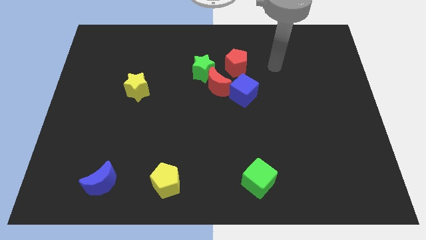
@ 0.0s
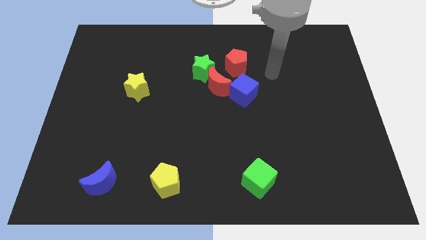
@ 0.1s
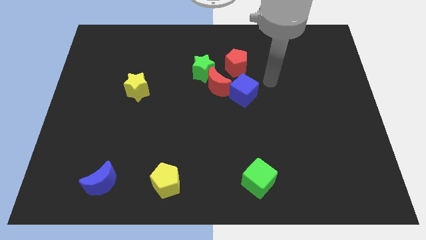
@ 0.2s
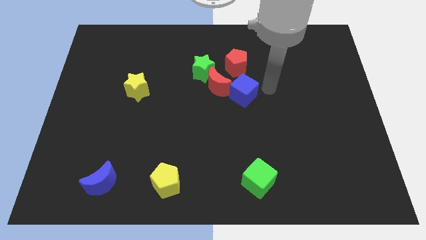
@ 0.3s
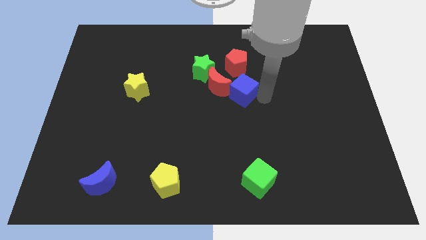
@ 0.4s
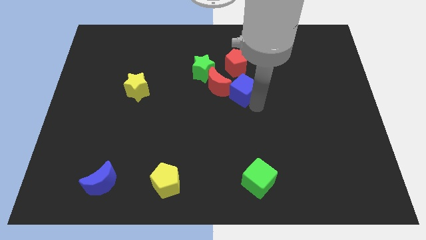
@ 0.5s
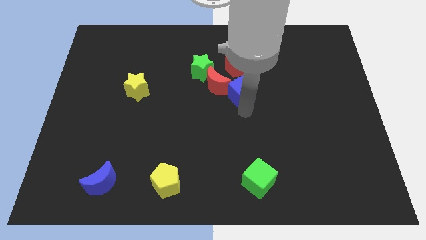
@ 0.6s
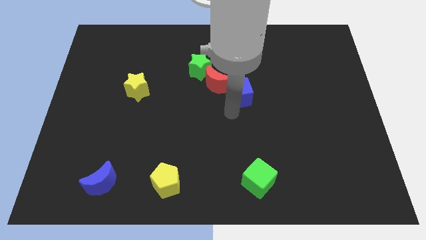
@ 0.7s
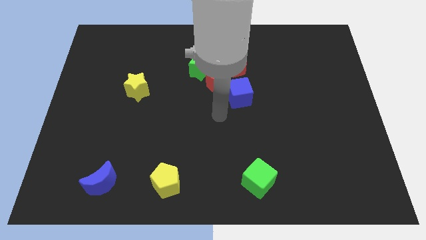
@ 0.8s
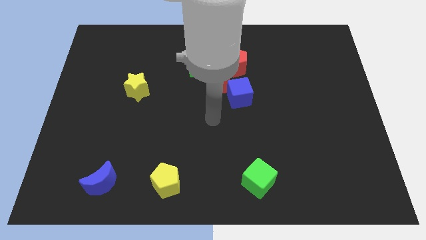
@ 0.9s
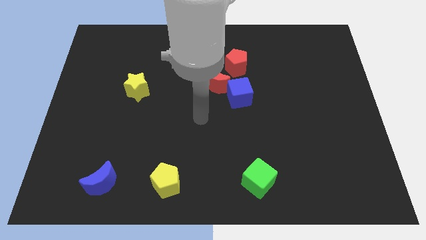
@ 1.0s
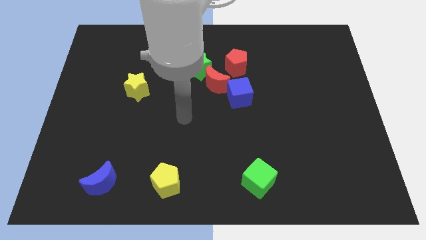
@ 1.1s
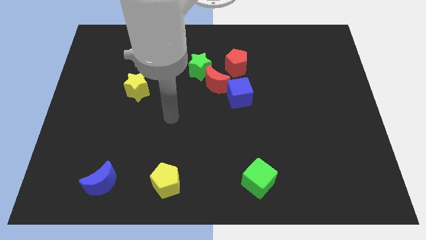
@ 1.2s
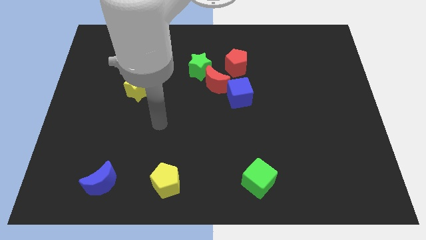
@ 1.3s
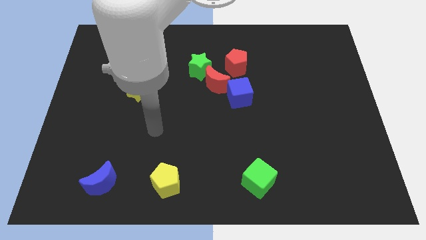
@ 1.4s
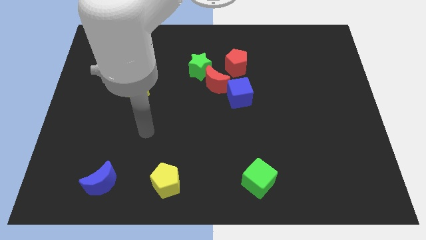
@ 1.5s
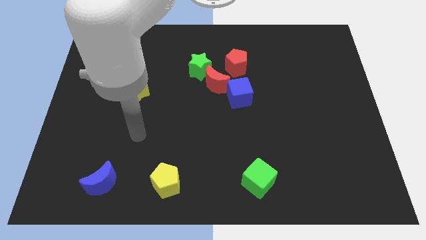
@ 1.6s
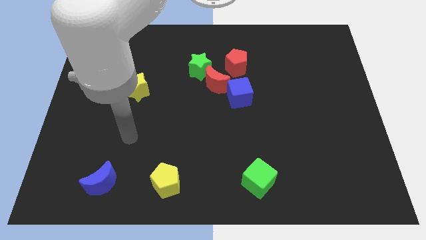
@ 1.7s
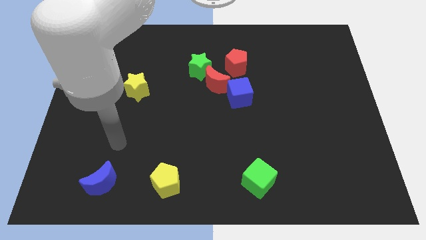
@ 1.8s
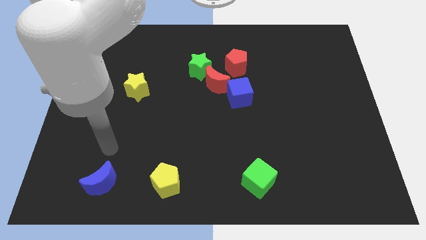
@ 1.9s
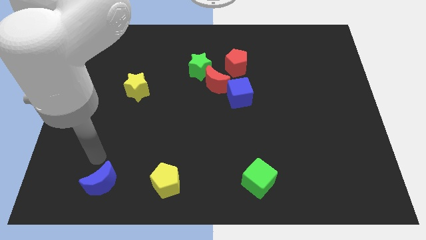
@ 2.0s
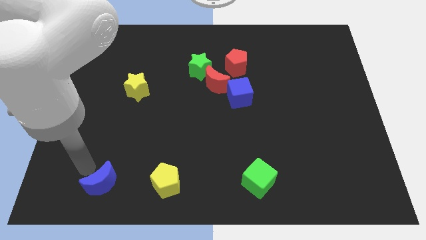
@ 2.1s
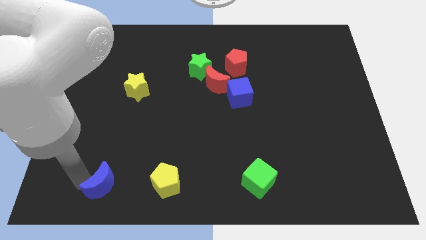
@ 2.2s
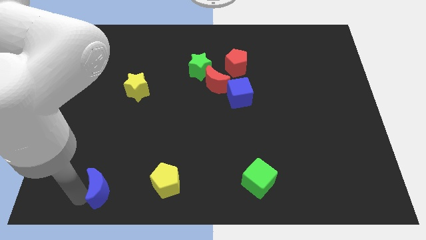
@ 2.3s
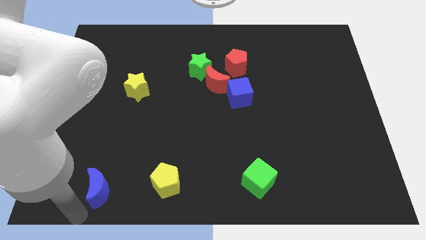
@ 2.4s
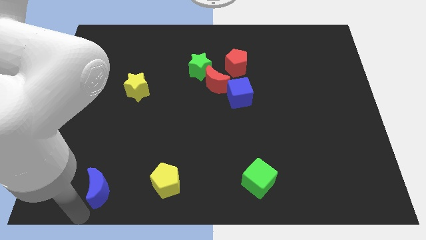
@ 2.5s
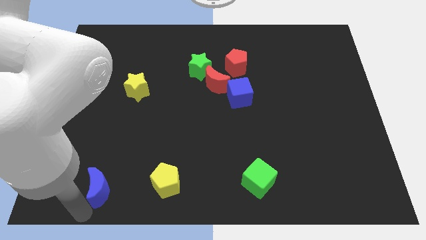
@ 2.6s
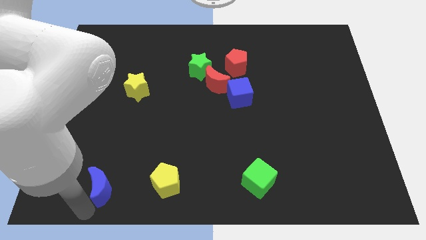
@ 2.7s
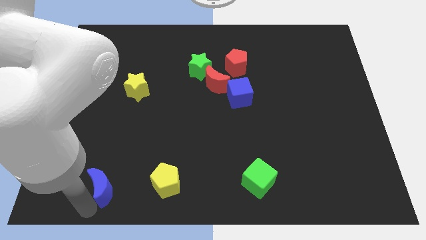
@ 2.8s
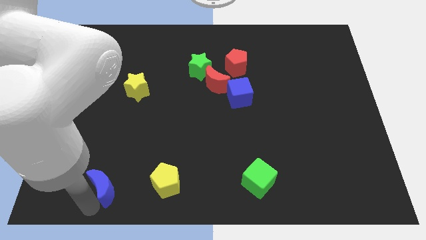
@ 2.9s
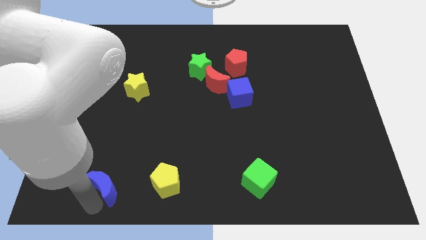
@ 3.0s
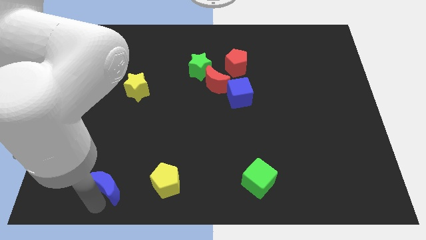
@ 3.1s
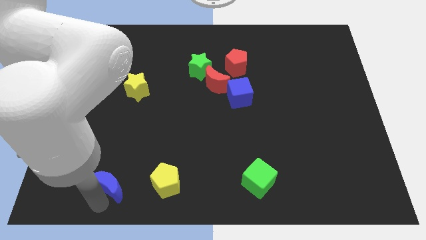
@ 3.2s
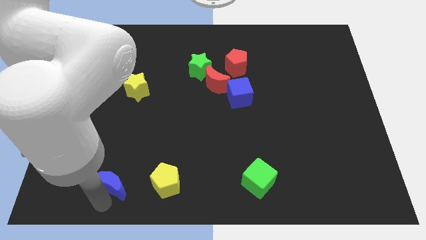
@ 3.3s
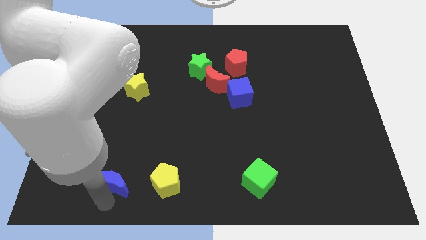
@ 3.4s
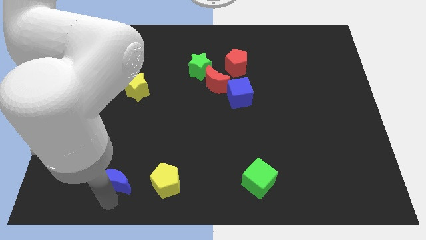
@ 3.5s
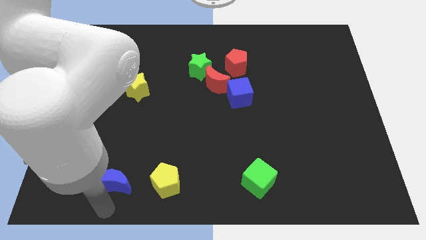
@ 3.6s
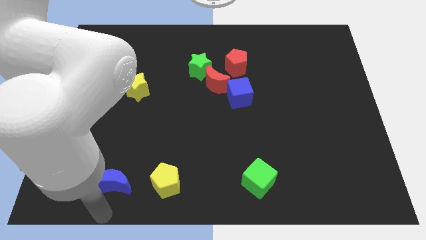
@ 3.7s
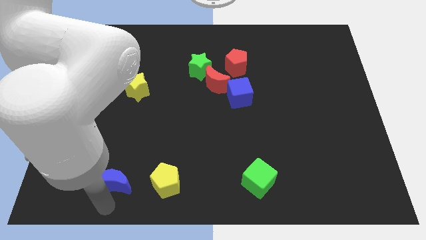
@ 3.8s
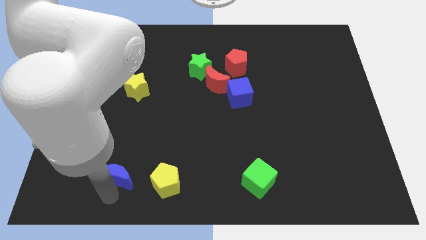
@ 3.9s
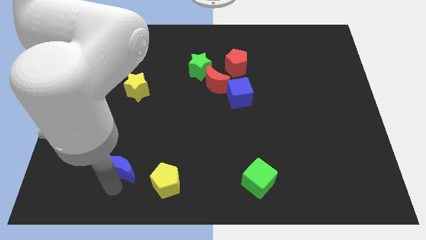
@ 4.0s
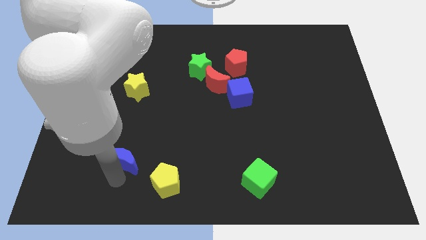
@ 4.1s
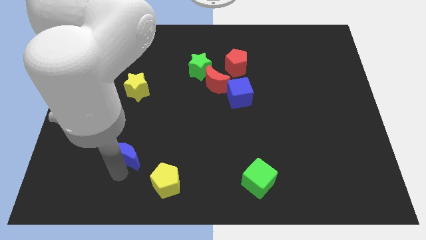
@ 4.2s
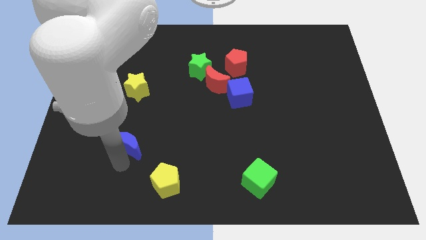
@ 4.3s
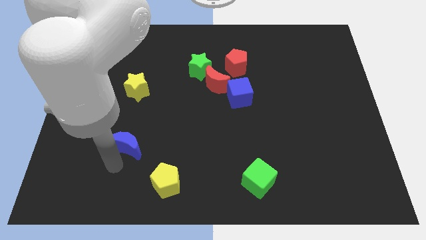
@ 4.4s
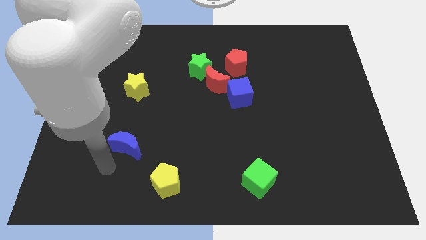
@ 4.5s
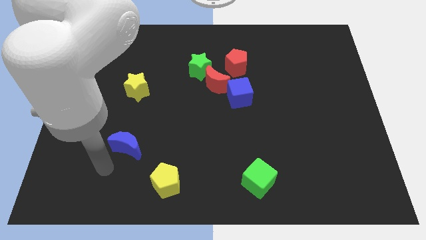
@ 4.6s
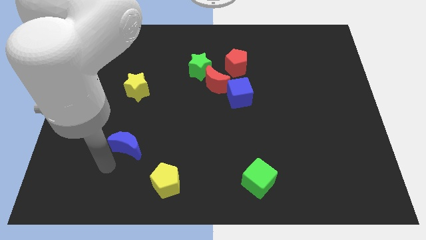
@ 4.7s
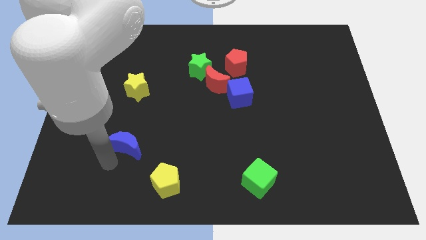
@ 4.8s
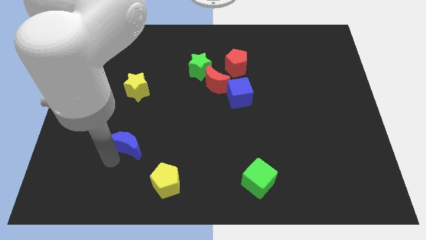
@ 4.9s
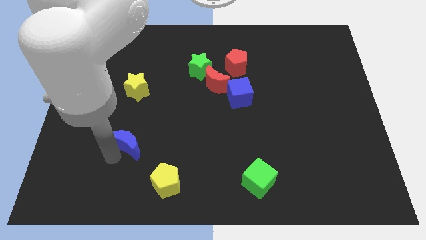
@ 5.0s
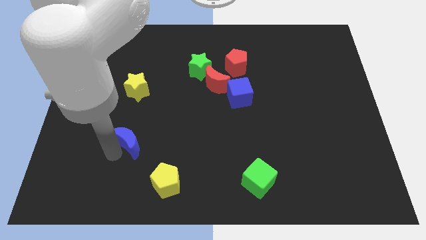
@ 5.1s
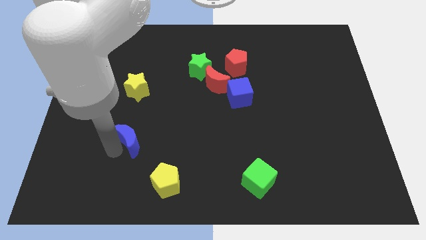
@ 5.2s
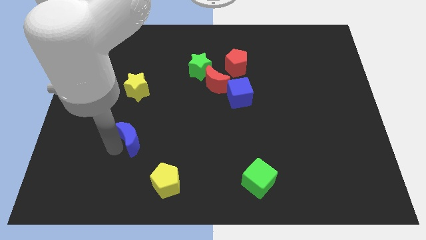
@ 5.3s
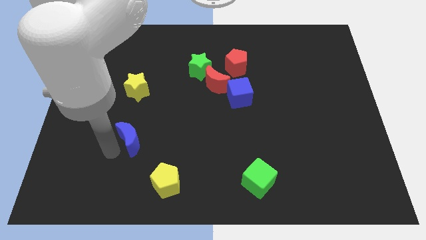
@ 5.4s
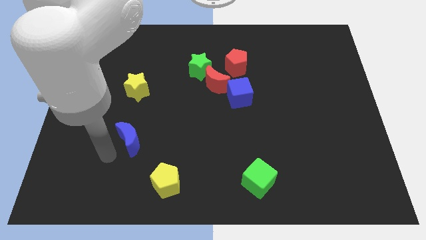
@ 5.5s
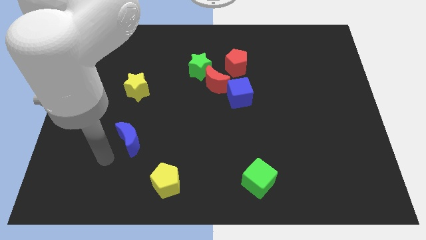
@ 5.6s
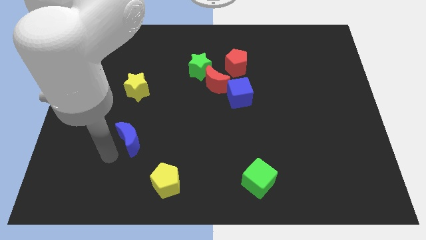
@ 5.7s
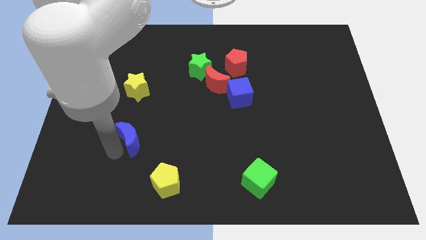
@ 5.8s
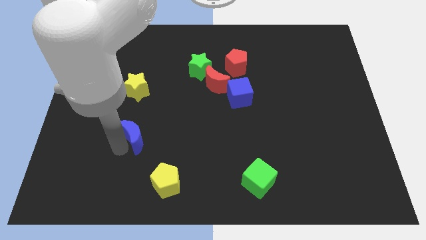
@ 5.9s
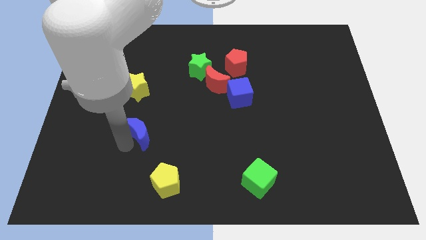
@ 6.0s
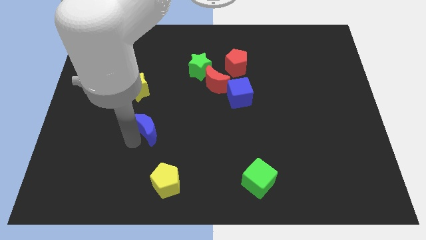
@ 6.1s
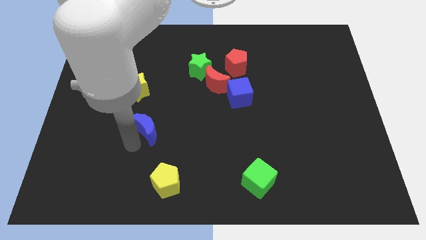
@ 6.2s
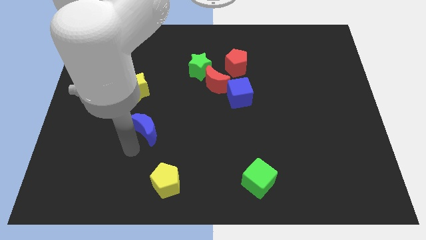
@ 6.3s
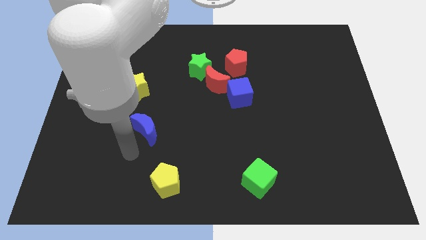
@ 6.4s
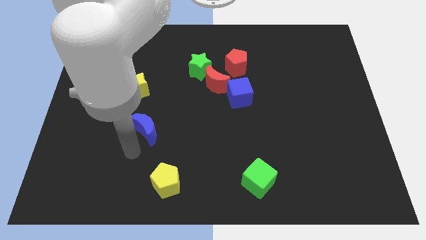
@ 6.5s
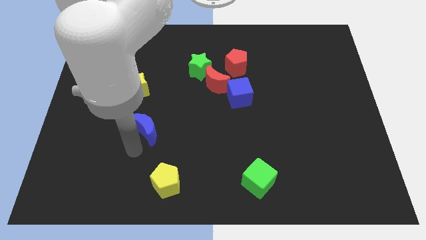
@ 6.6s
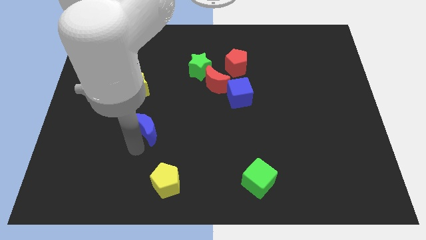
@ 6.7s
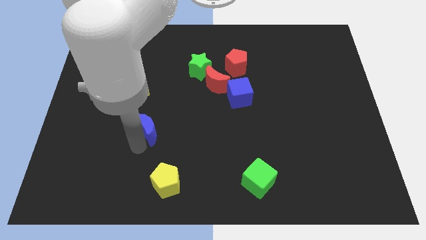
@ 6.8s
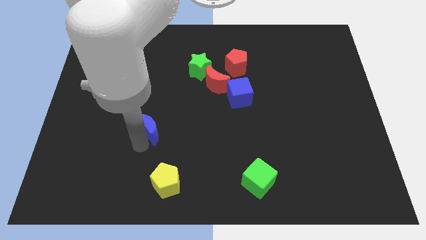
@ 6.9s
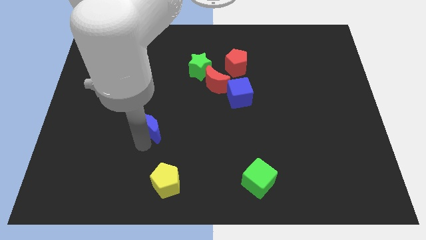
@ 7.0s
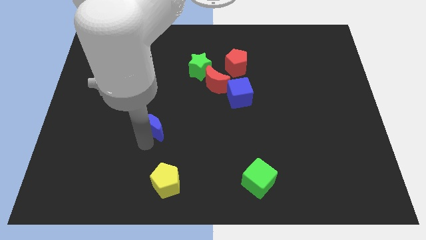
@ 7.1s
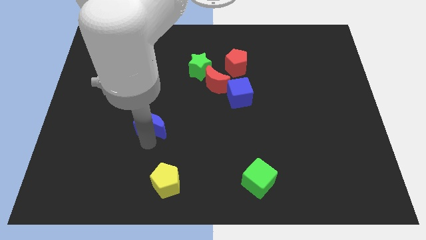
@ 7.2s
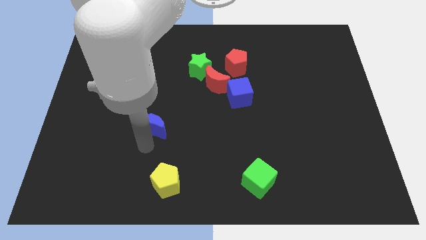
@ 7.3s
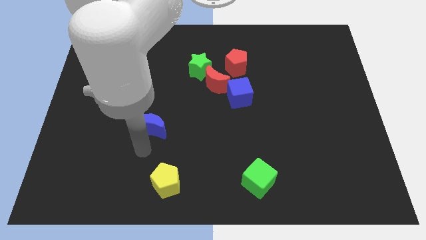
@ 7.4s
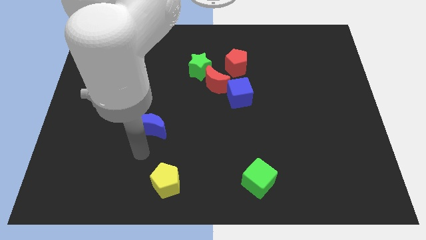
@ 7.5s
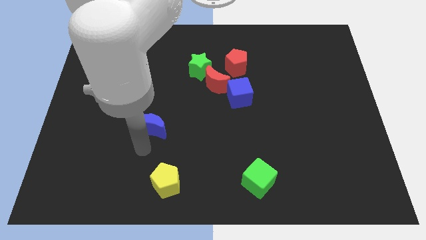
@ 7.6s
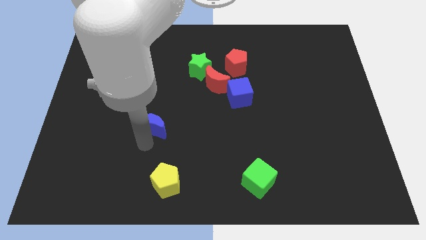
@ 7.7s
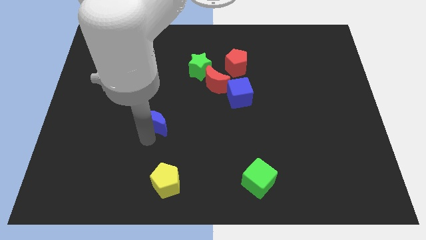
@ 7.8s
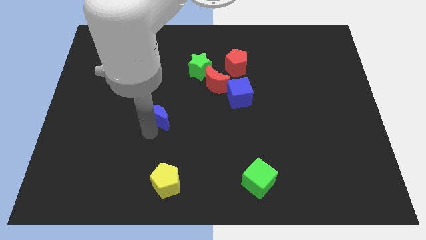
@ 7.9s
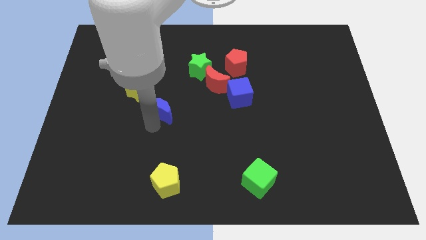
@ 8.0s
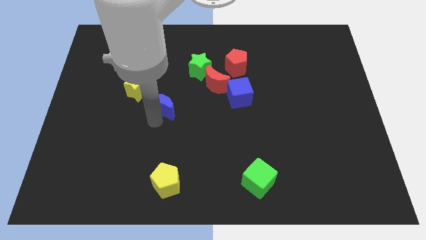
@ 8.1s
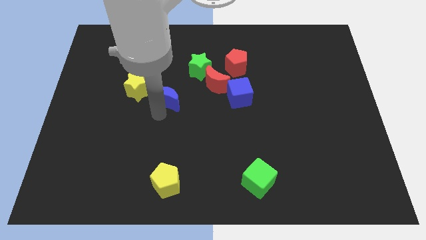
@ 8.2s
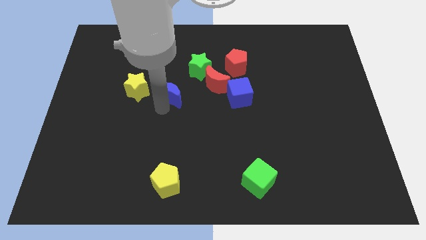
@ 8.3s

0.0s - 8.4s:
push the blue moon to the bottom left of the green star
